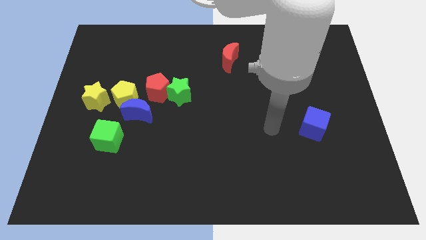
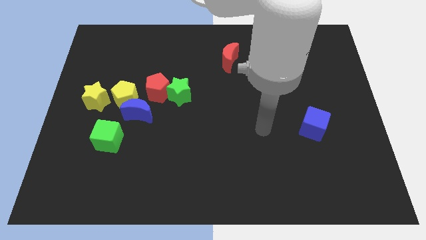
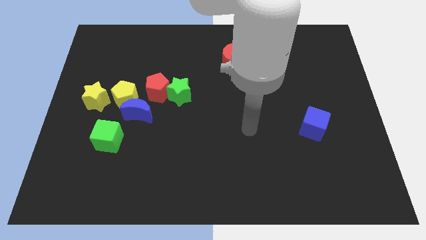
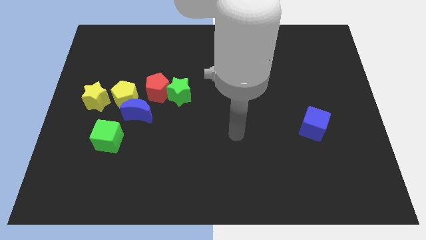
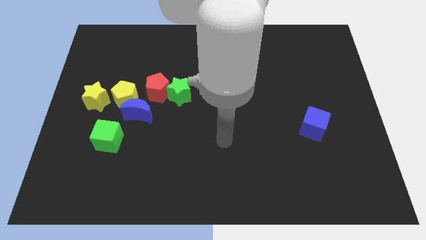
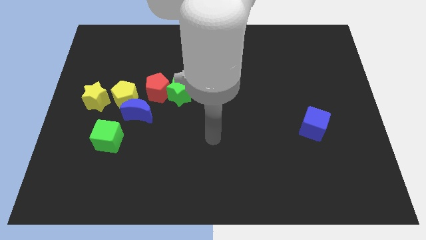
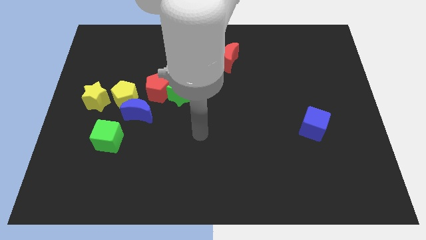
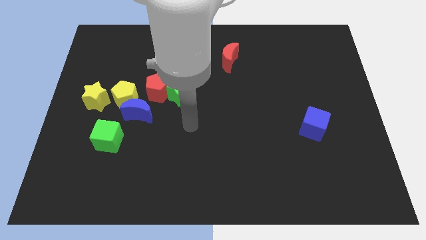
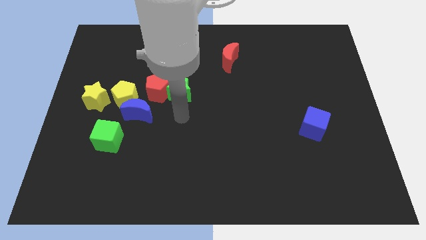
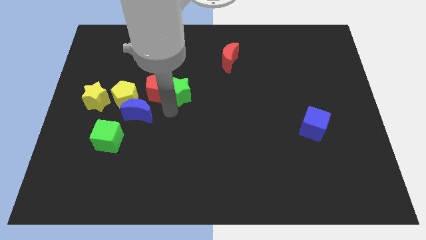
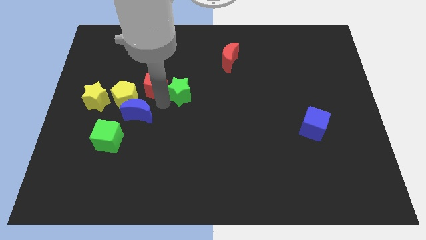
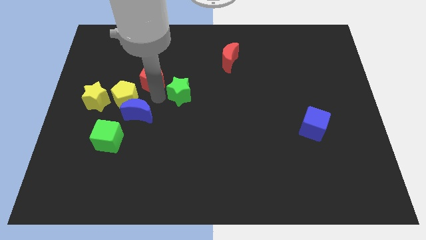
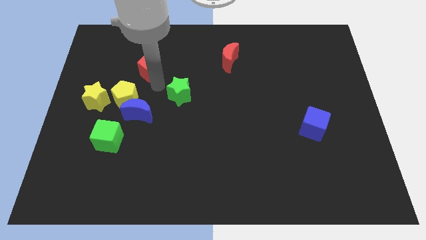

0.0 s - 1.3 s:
move the green star away from the red pentagon

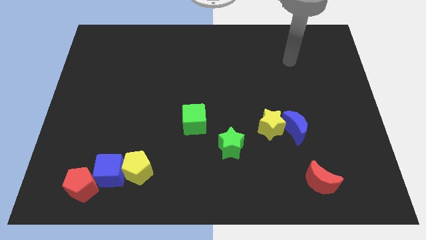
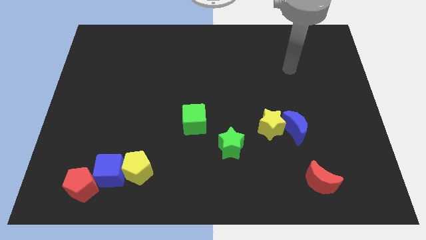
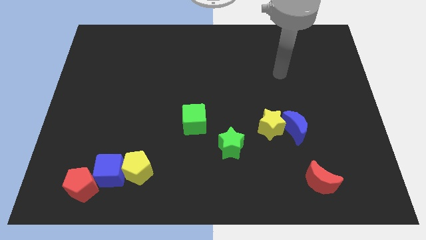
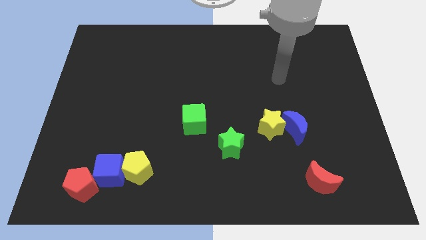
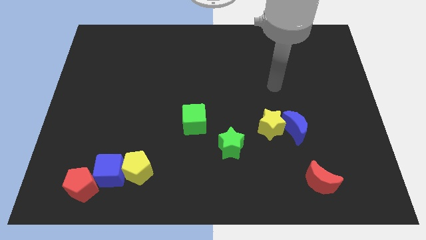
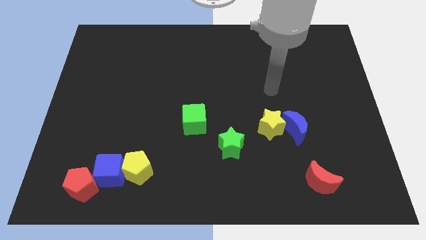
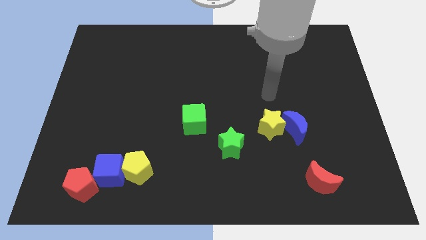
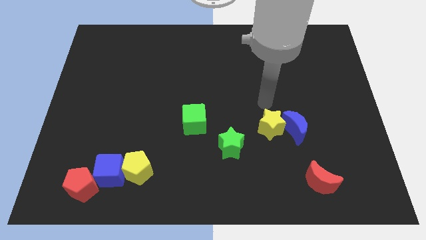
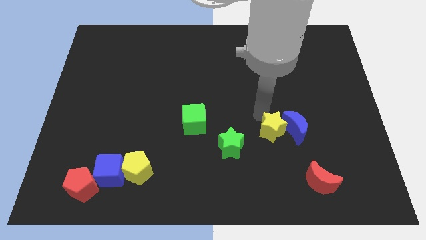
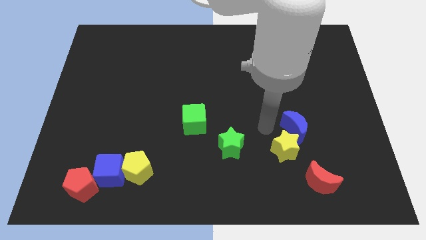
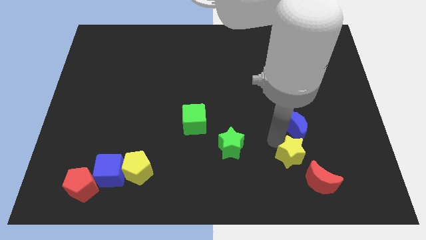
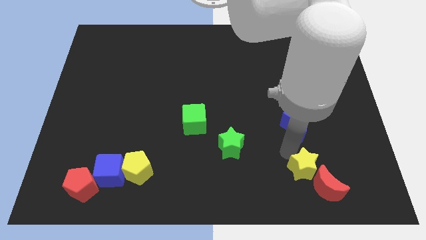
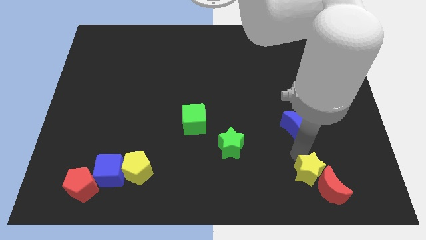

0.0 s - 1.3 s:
separate the blue moon from the yellow star

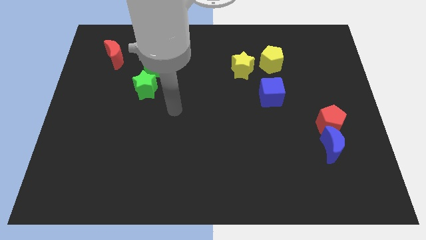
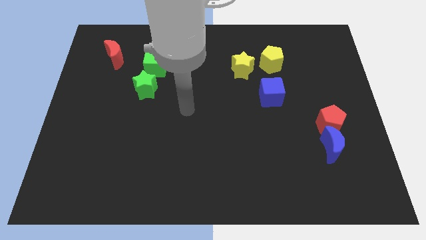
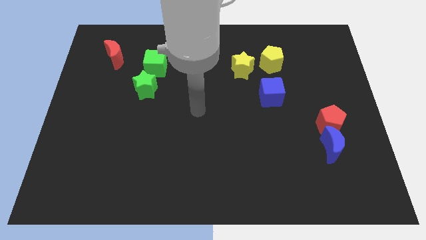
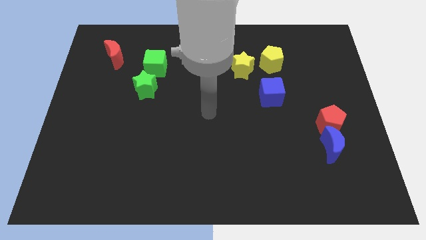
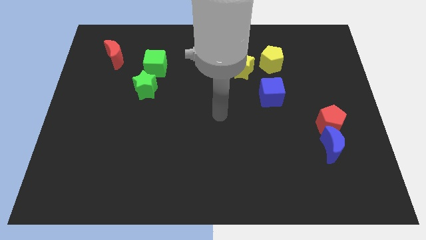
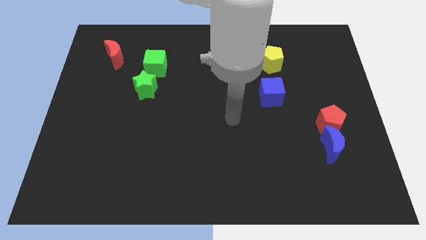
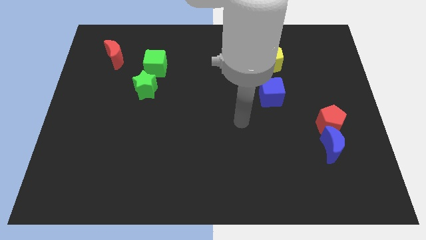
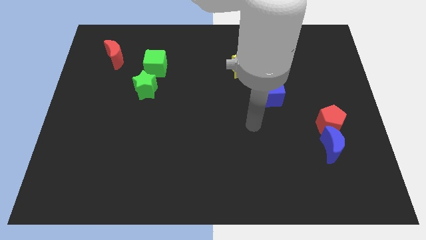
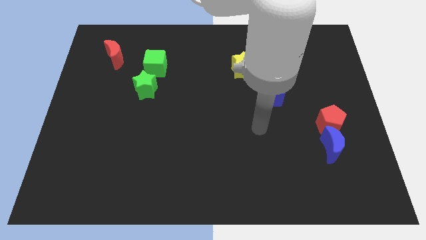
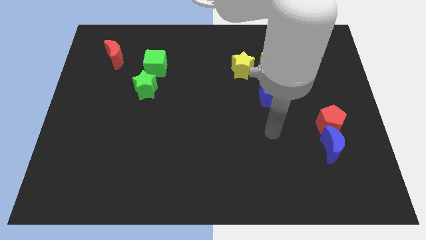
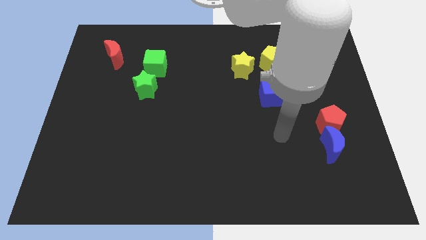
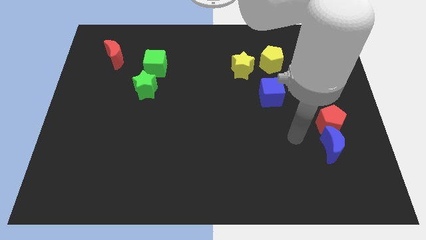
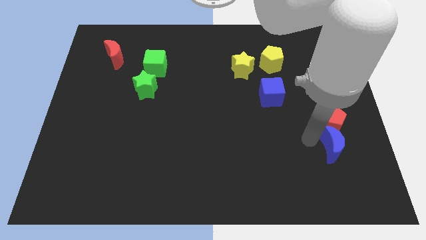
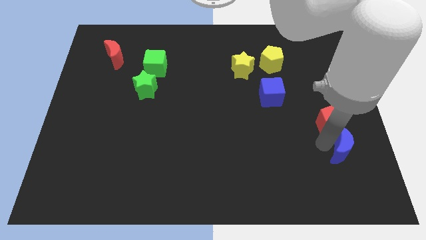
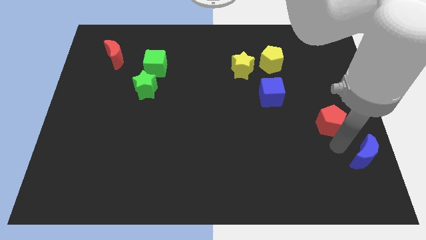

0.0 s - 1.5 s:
move the red pentagon away from the blue moon

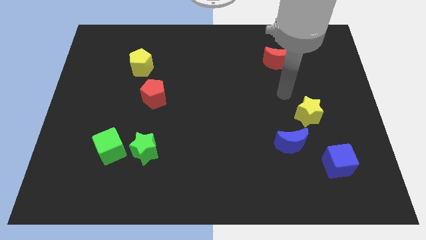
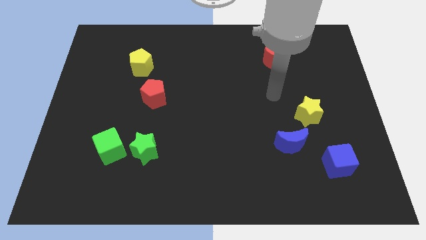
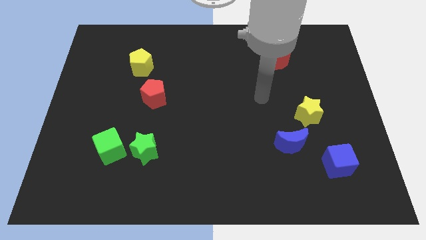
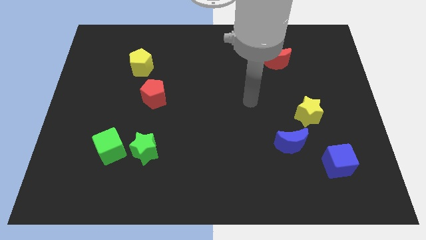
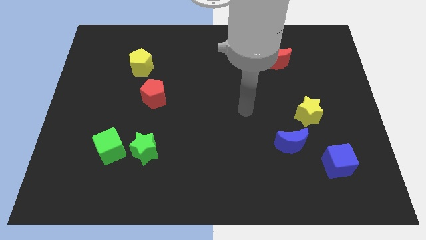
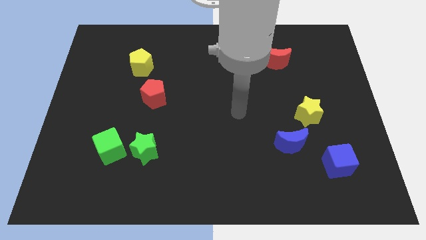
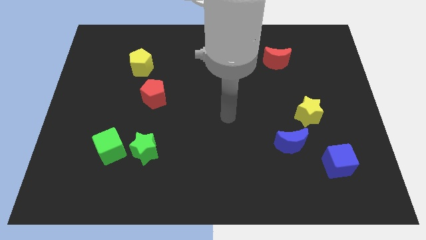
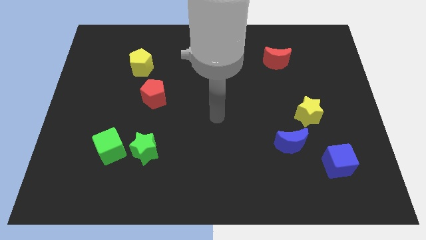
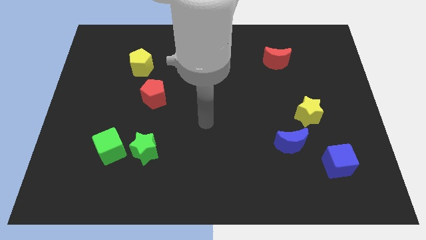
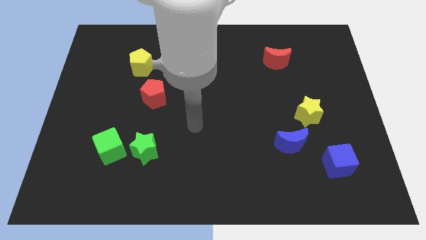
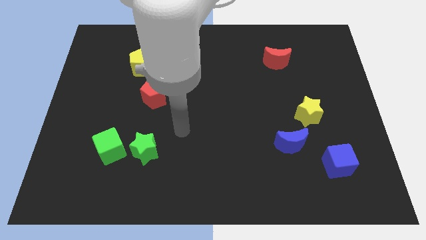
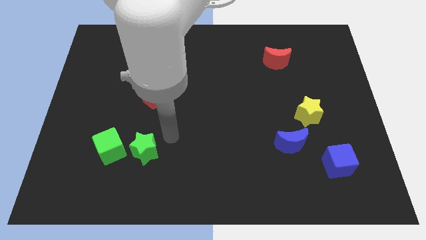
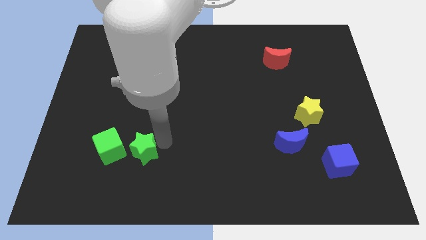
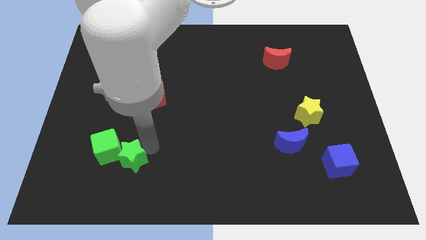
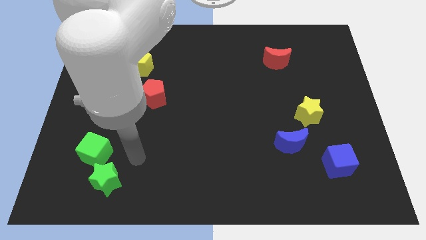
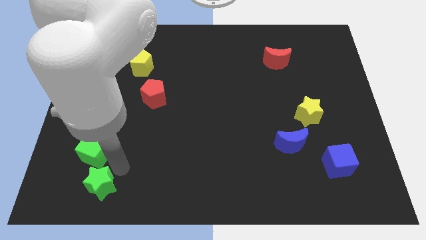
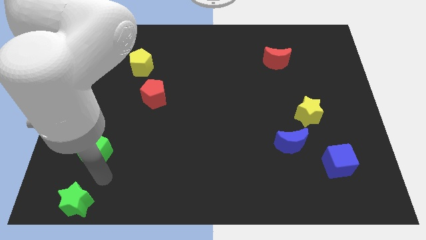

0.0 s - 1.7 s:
move the green cube away from the green star

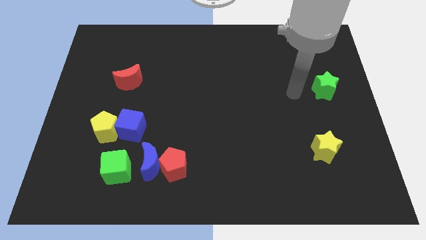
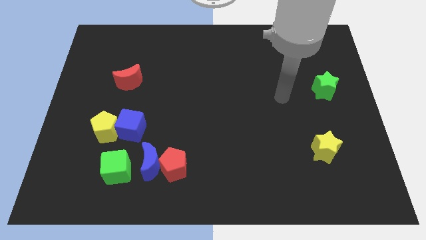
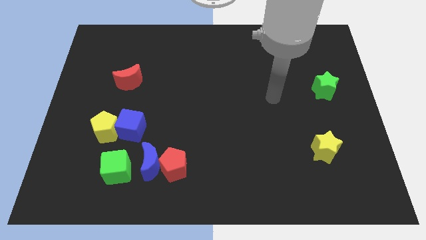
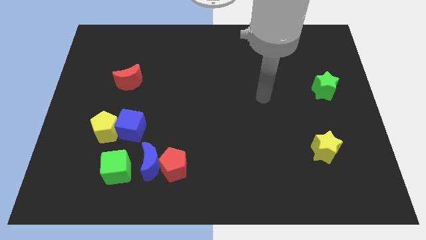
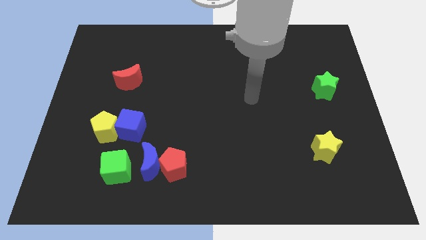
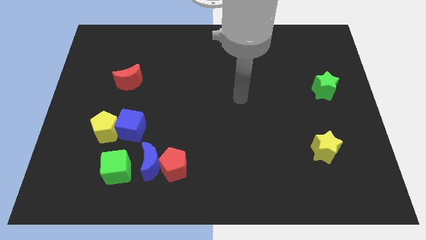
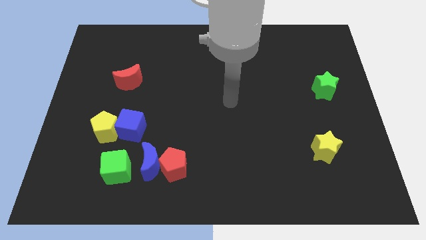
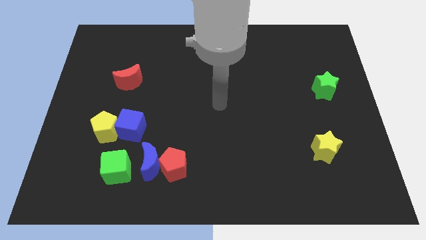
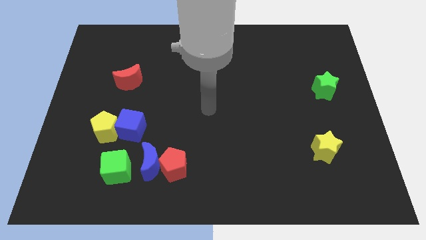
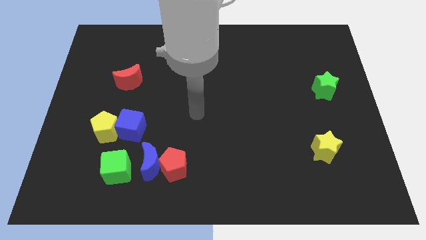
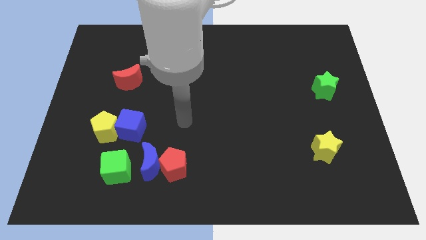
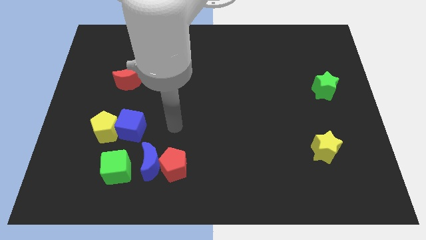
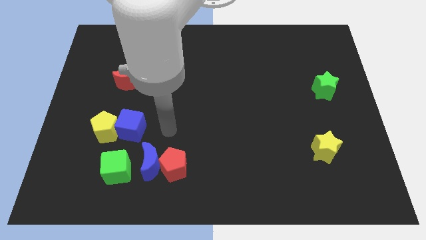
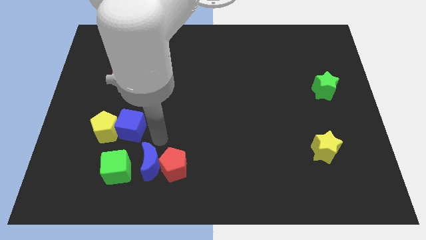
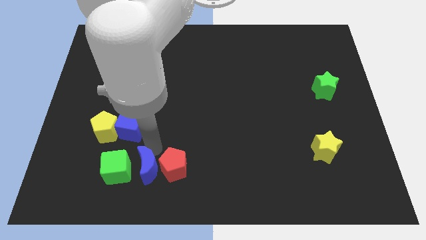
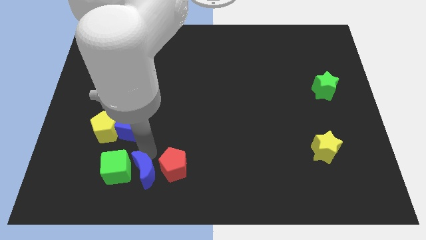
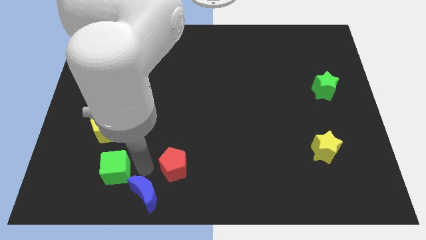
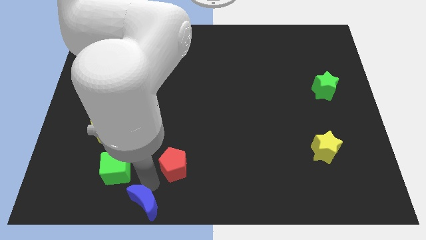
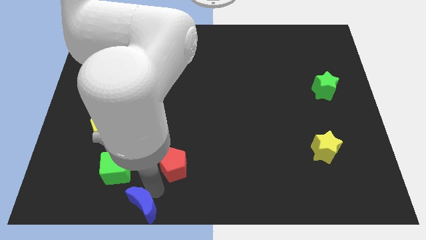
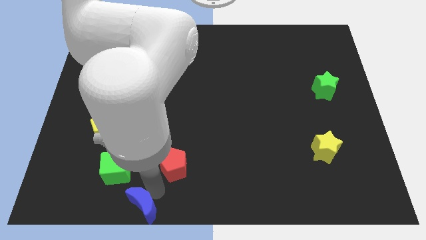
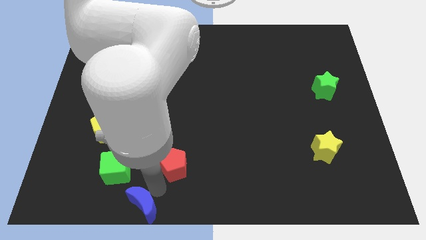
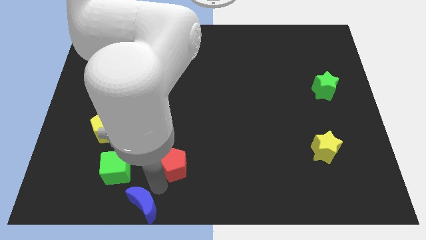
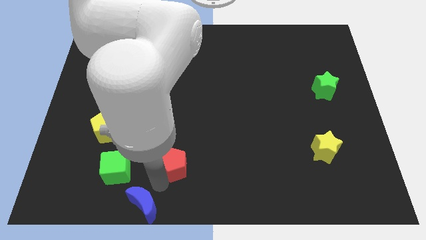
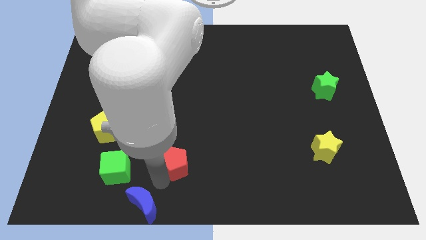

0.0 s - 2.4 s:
separate the red pentagon from the blue moon

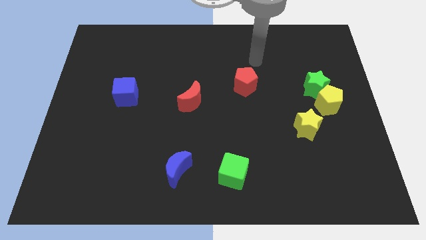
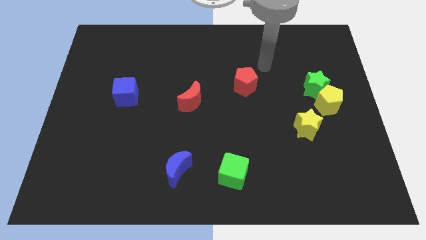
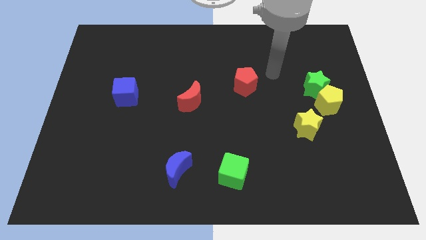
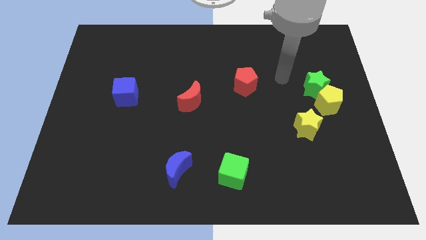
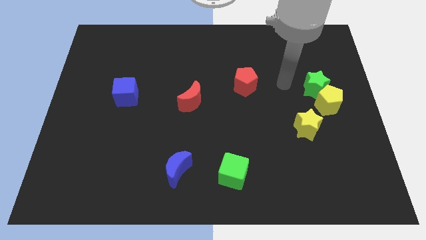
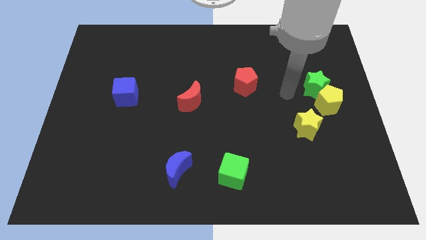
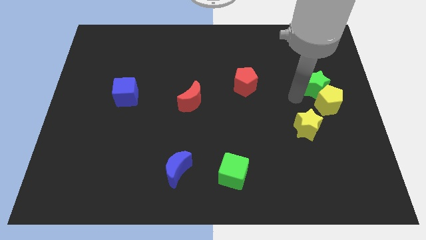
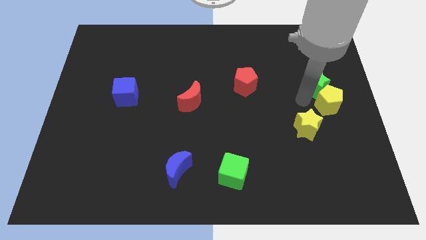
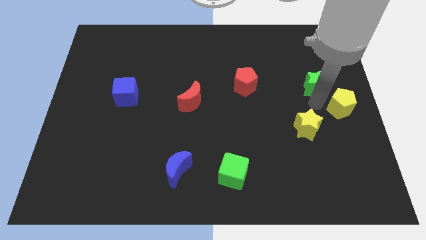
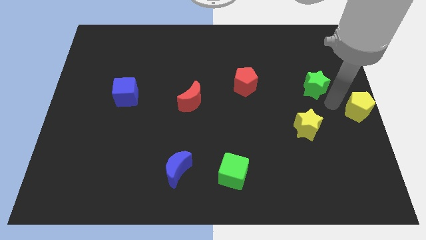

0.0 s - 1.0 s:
move the green star away from the yellow pentagon
